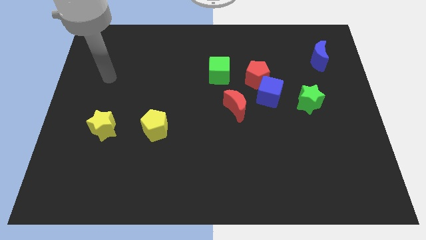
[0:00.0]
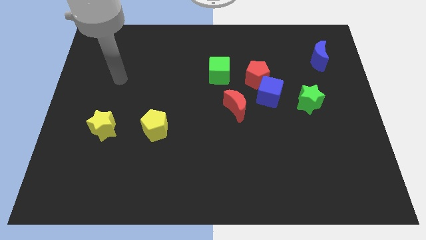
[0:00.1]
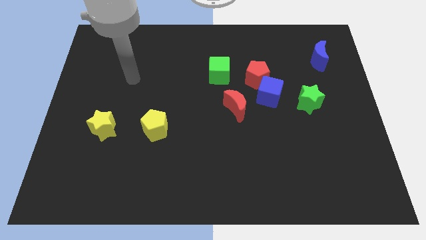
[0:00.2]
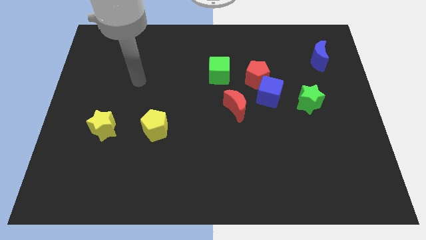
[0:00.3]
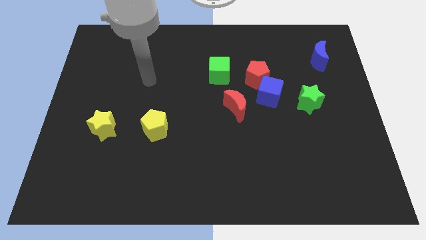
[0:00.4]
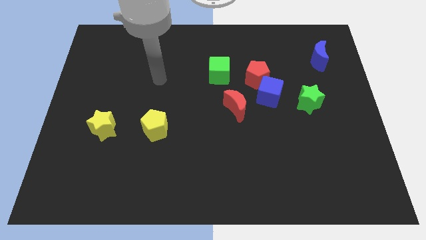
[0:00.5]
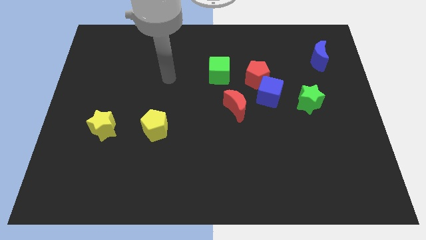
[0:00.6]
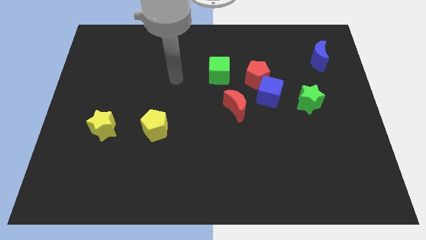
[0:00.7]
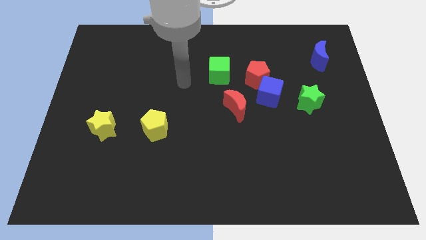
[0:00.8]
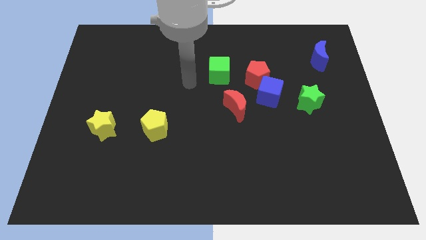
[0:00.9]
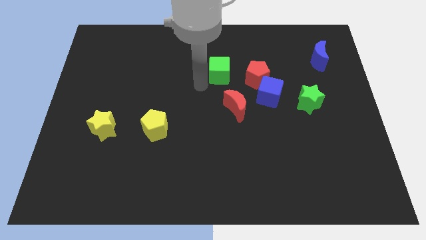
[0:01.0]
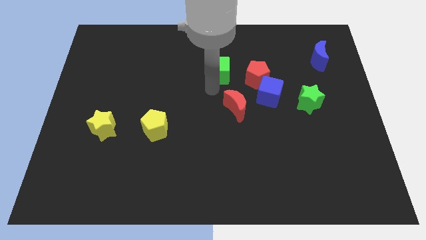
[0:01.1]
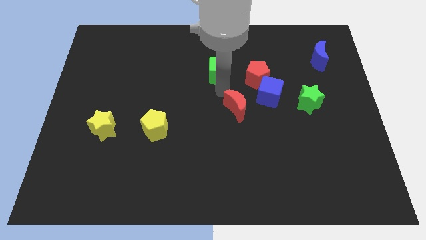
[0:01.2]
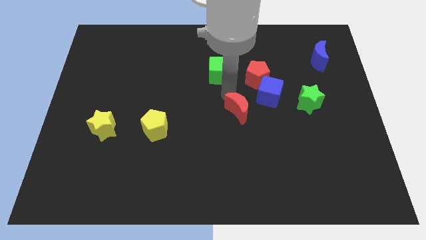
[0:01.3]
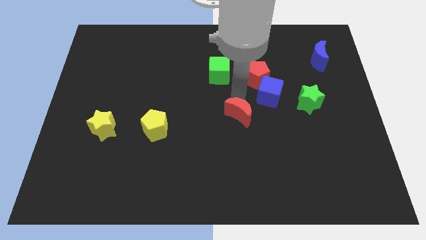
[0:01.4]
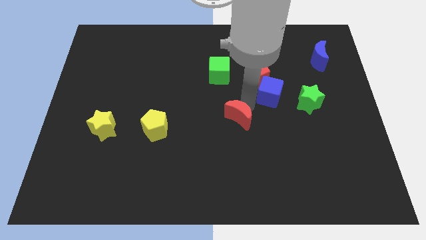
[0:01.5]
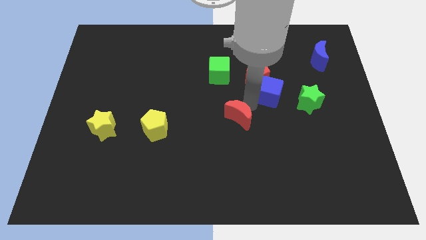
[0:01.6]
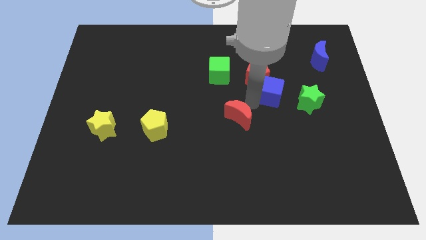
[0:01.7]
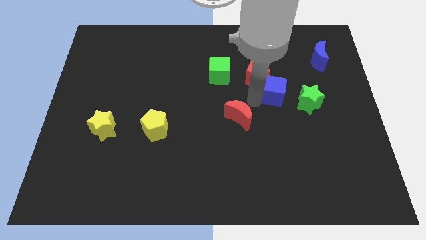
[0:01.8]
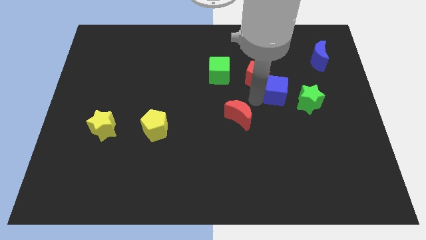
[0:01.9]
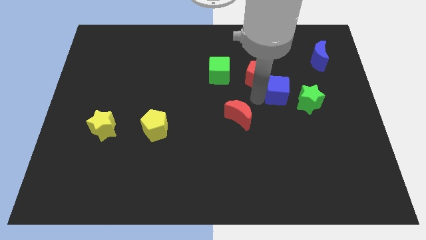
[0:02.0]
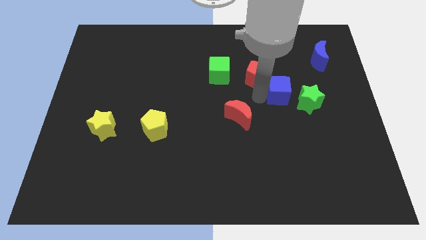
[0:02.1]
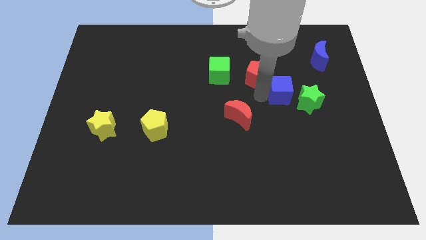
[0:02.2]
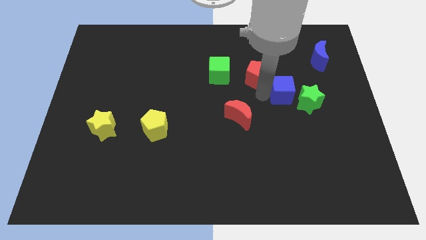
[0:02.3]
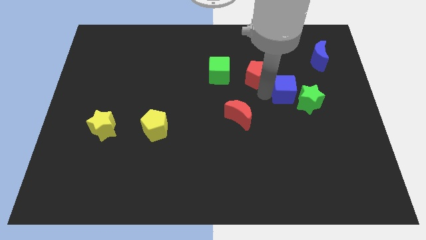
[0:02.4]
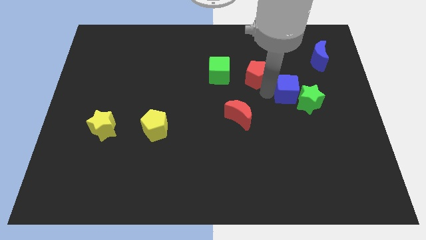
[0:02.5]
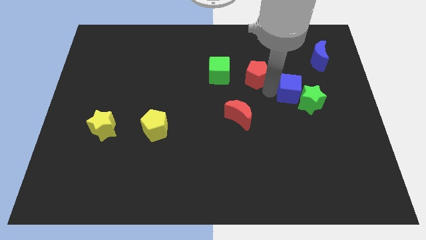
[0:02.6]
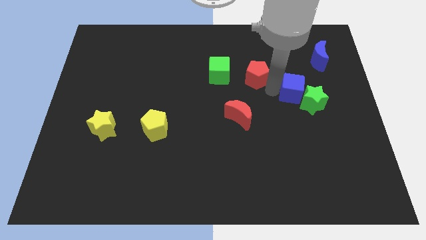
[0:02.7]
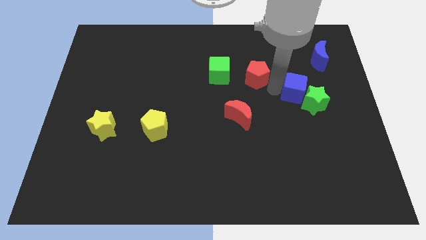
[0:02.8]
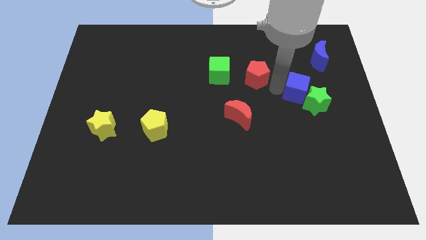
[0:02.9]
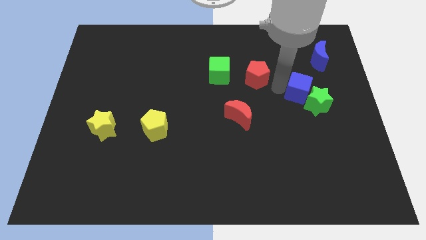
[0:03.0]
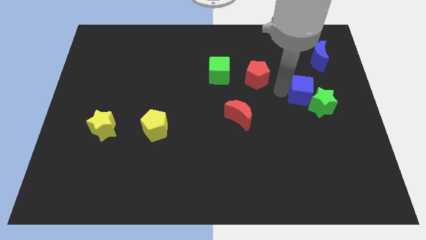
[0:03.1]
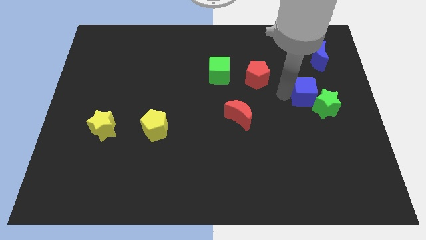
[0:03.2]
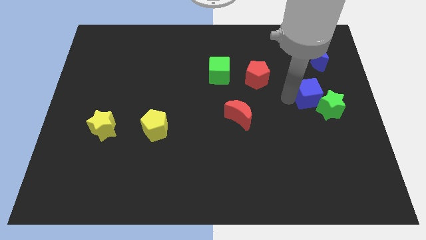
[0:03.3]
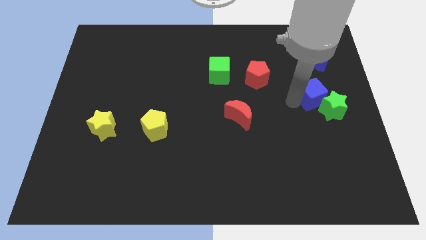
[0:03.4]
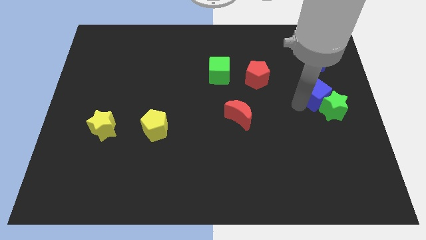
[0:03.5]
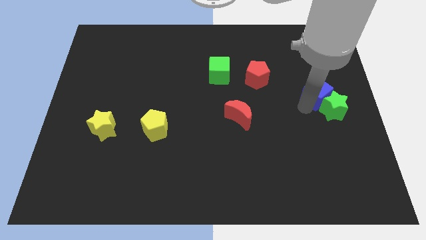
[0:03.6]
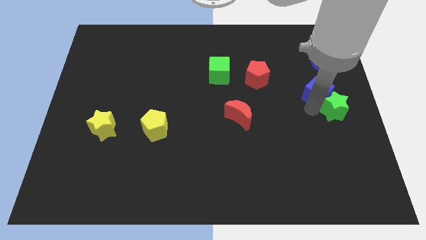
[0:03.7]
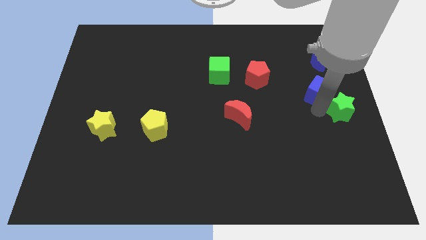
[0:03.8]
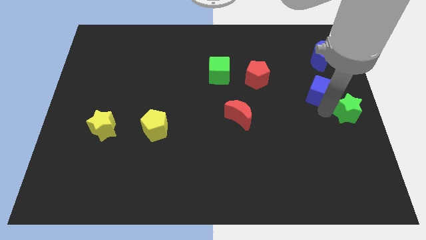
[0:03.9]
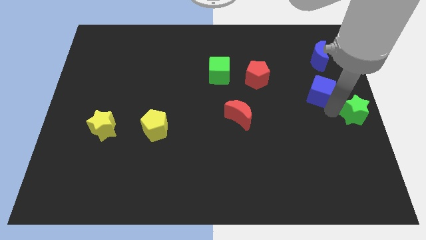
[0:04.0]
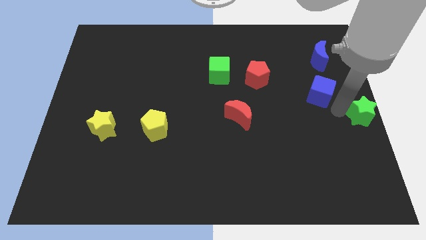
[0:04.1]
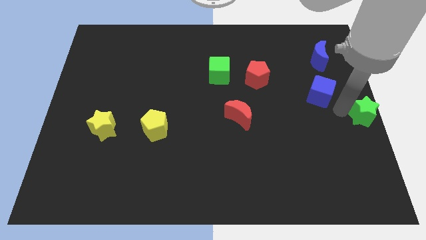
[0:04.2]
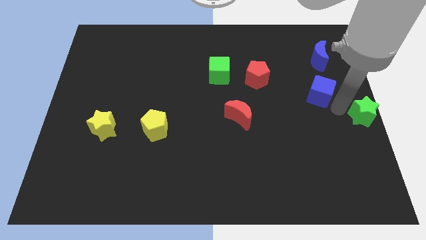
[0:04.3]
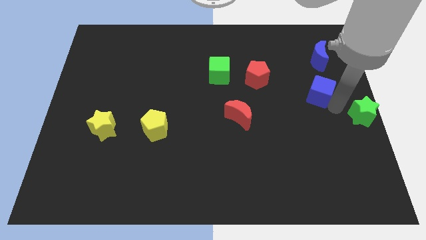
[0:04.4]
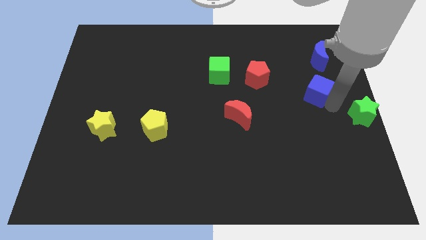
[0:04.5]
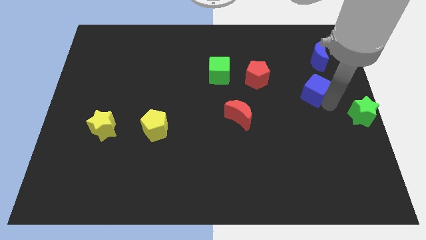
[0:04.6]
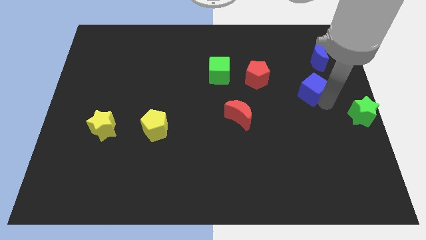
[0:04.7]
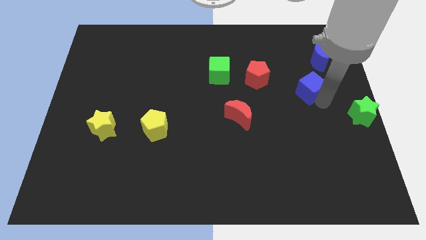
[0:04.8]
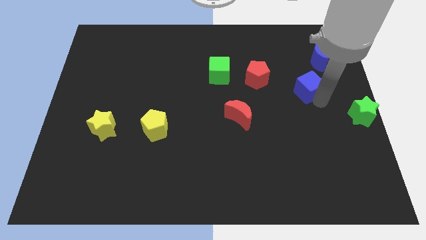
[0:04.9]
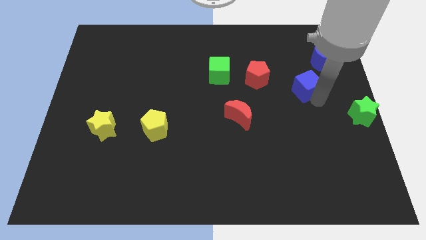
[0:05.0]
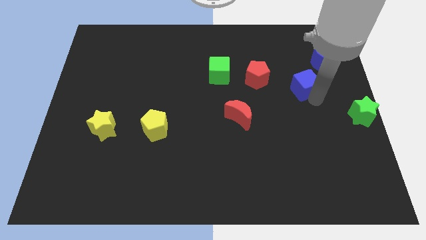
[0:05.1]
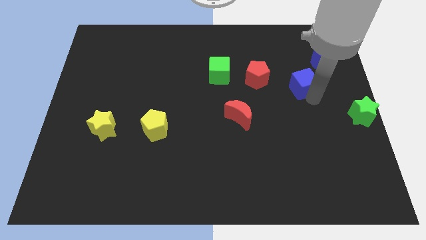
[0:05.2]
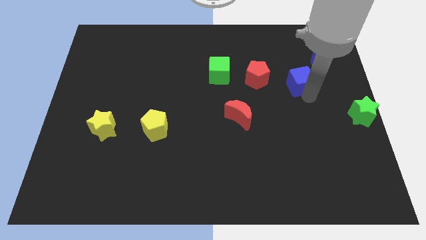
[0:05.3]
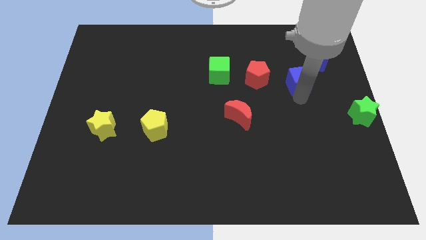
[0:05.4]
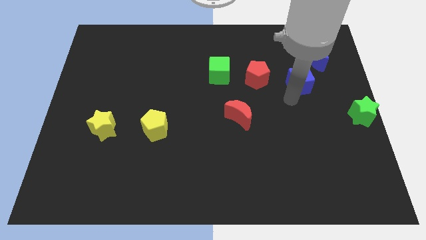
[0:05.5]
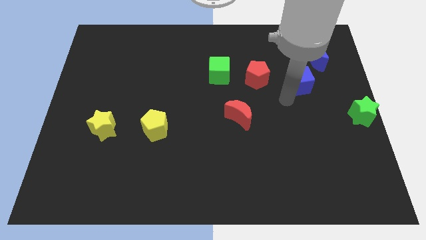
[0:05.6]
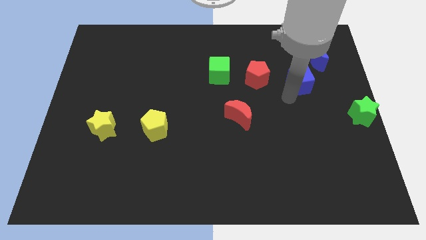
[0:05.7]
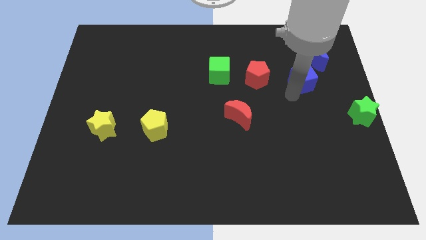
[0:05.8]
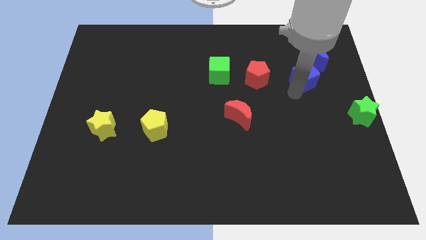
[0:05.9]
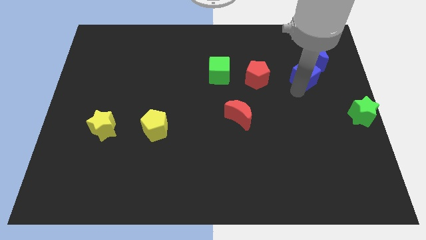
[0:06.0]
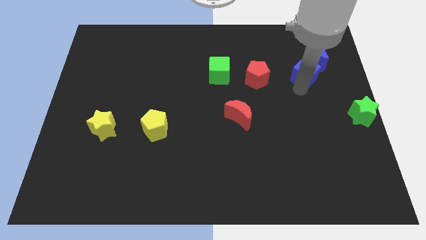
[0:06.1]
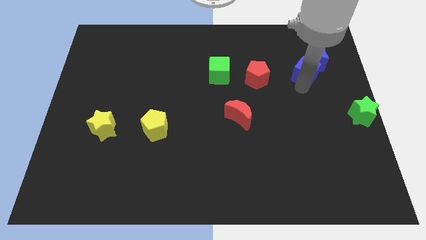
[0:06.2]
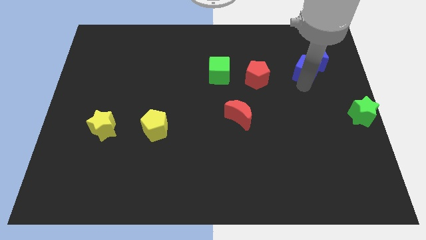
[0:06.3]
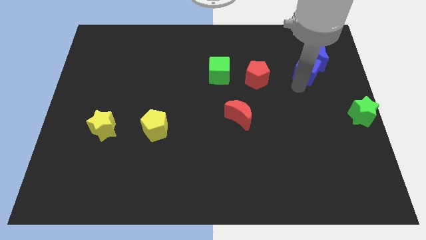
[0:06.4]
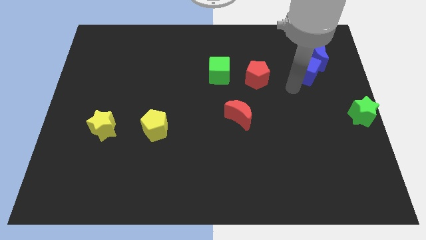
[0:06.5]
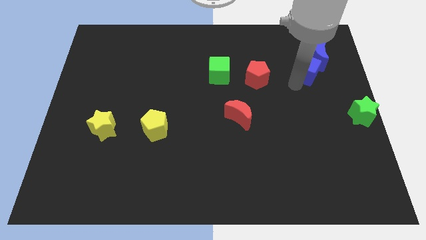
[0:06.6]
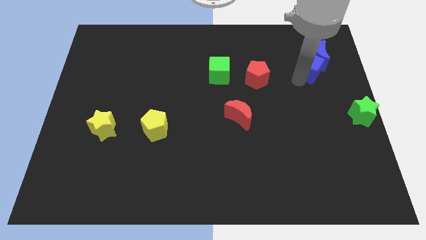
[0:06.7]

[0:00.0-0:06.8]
slide the blue cube close to the blue moon

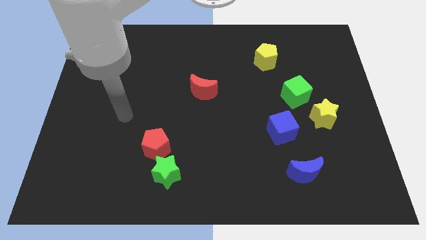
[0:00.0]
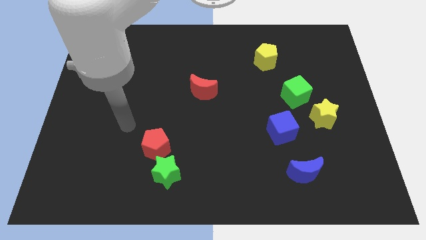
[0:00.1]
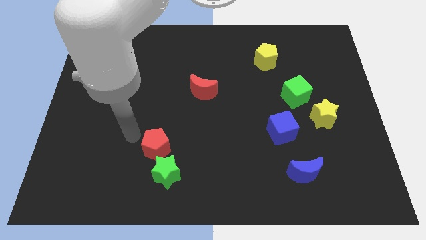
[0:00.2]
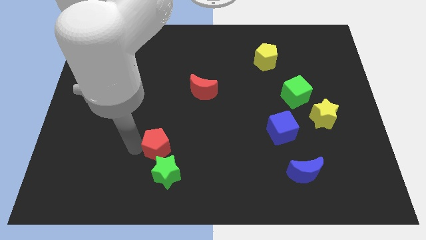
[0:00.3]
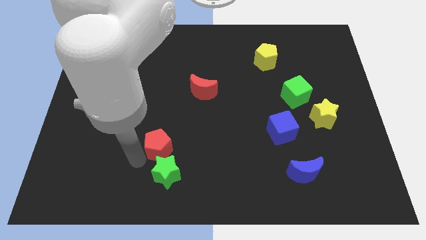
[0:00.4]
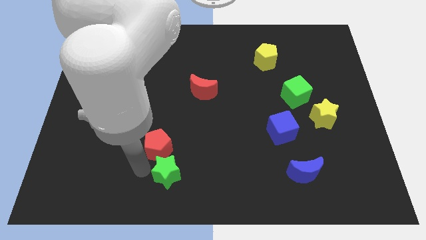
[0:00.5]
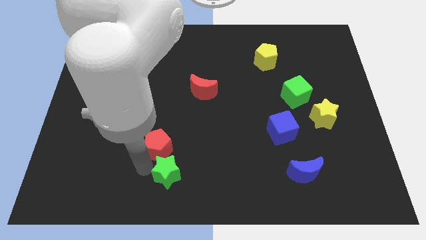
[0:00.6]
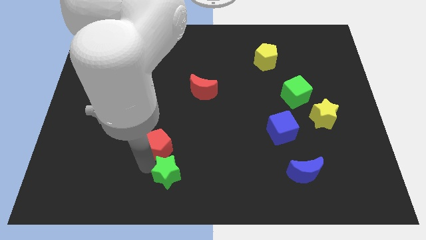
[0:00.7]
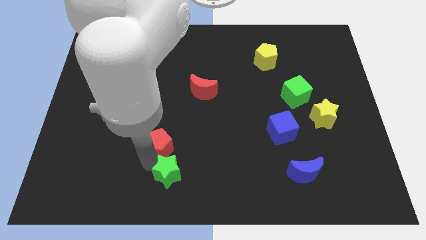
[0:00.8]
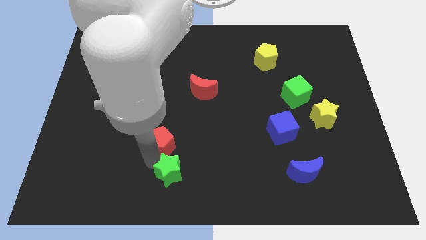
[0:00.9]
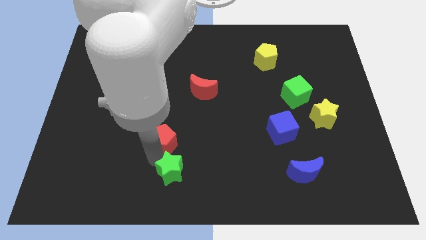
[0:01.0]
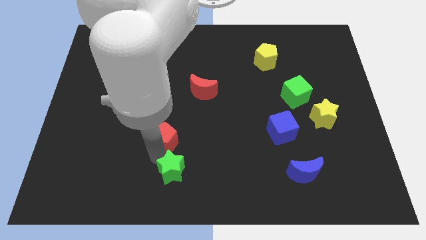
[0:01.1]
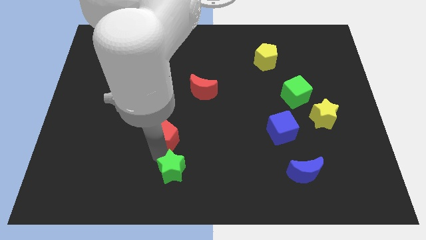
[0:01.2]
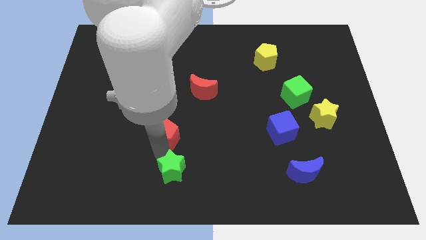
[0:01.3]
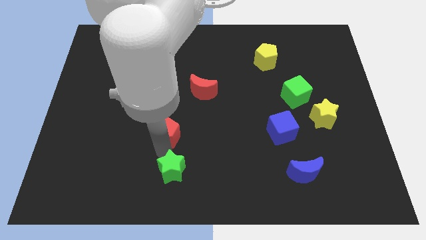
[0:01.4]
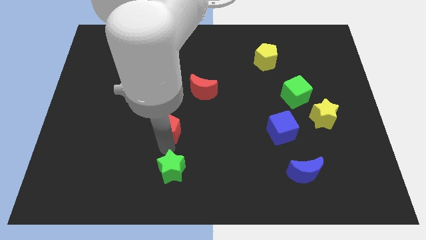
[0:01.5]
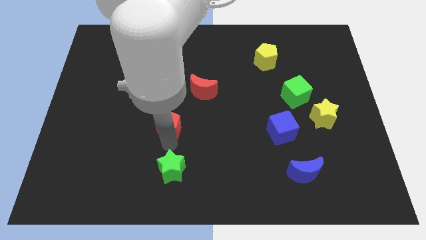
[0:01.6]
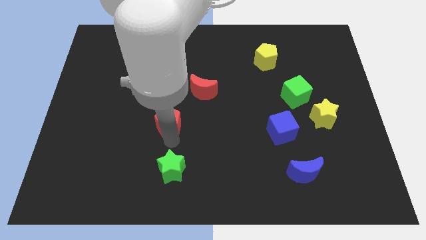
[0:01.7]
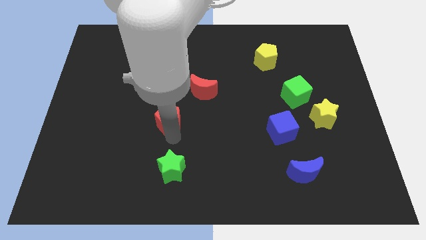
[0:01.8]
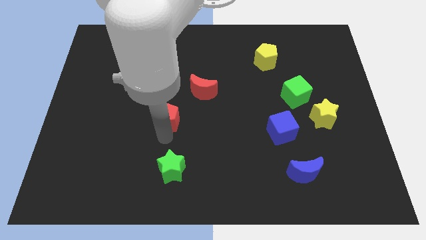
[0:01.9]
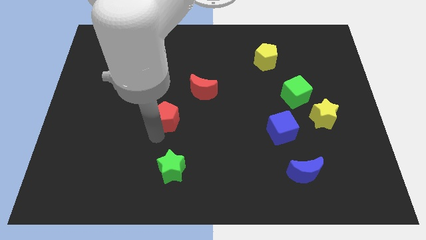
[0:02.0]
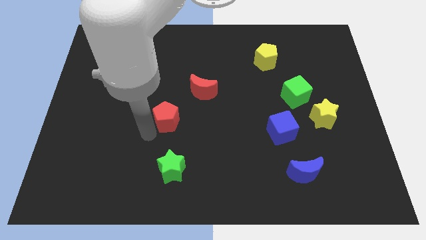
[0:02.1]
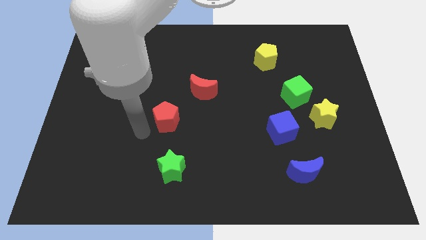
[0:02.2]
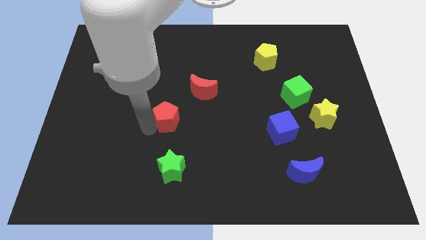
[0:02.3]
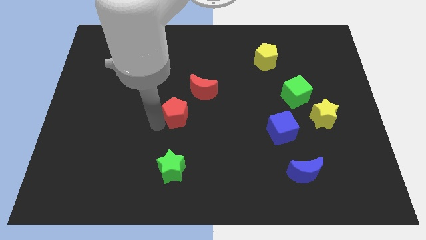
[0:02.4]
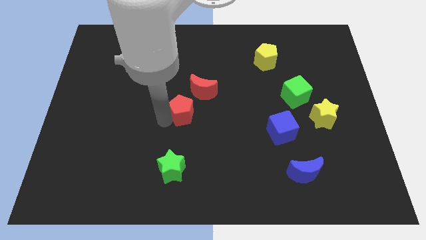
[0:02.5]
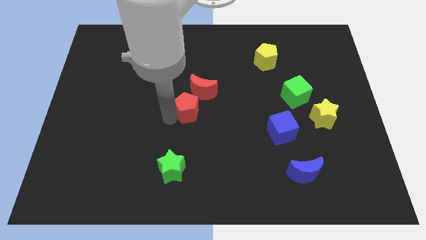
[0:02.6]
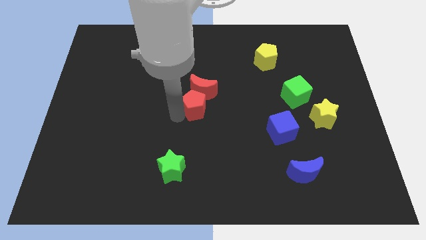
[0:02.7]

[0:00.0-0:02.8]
move the red pentagon towards the red moon
